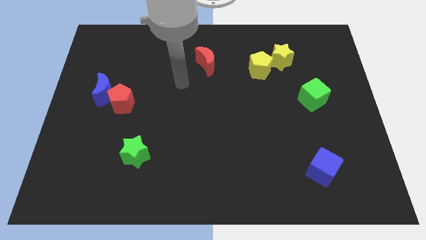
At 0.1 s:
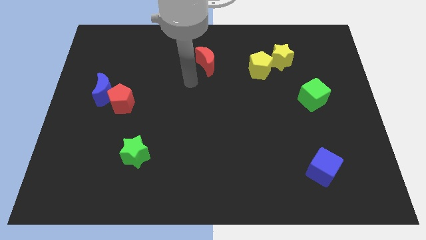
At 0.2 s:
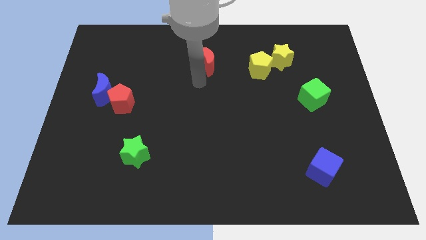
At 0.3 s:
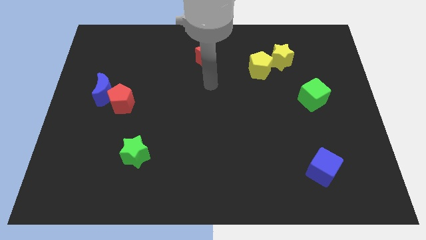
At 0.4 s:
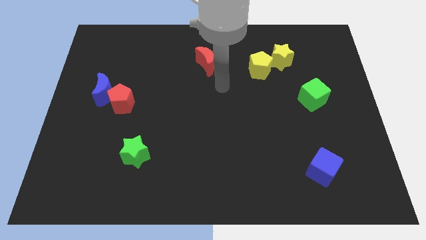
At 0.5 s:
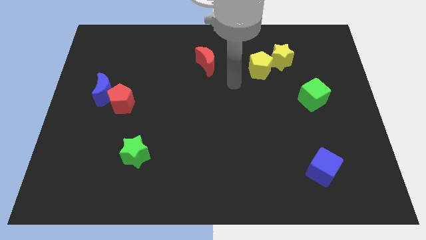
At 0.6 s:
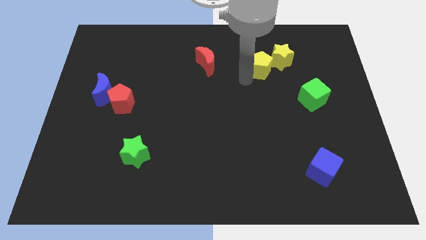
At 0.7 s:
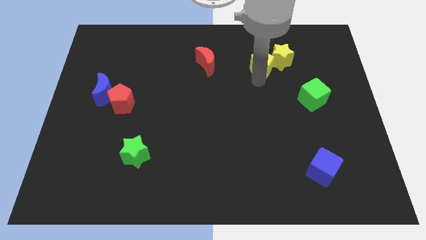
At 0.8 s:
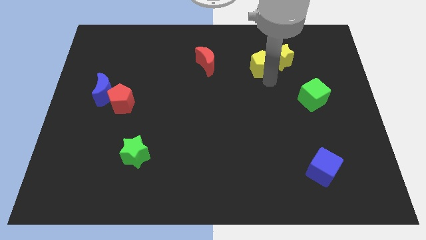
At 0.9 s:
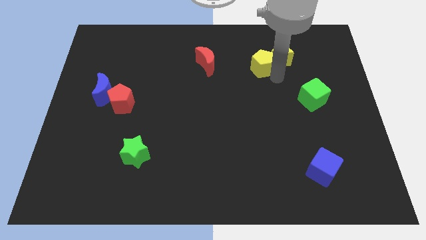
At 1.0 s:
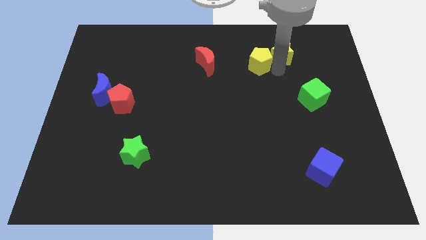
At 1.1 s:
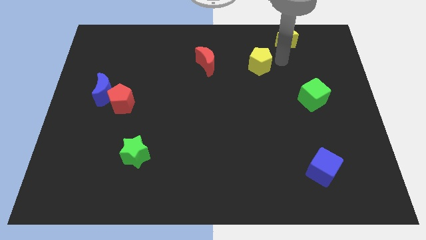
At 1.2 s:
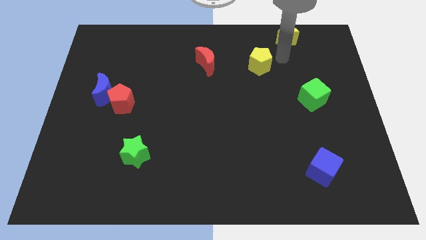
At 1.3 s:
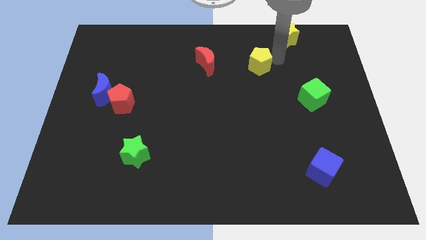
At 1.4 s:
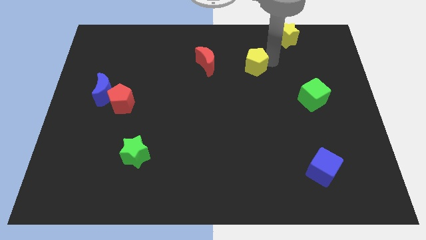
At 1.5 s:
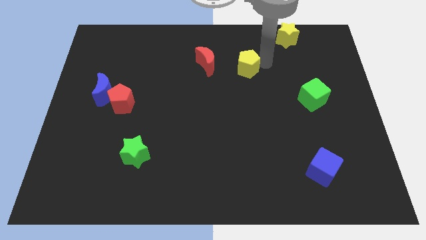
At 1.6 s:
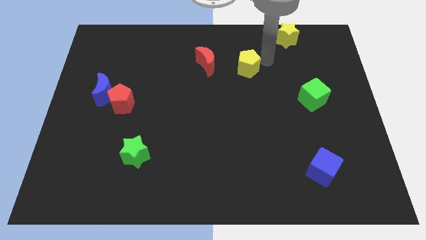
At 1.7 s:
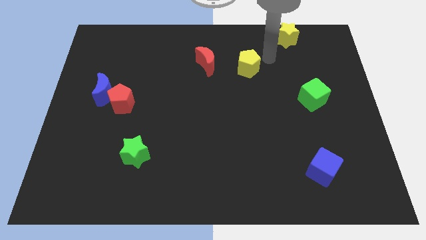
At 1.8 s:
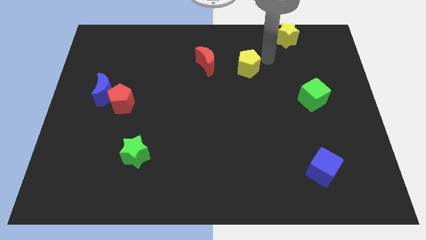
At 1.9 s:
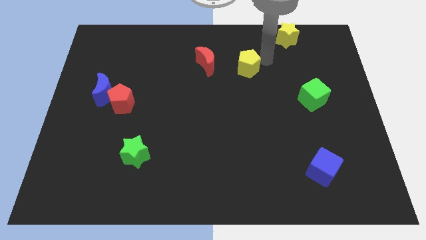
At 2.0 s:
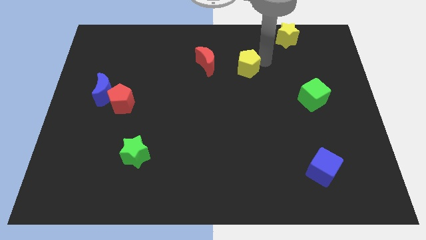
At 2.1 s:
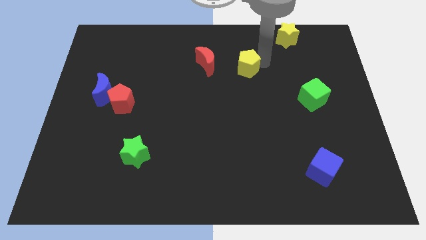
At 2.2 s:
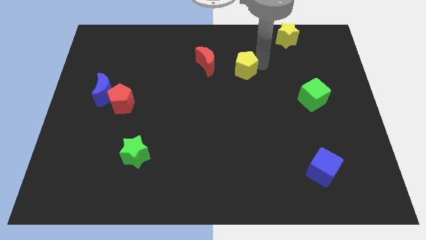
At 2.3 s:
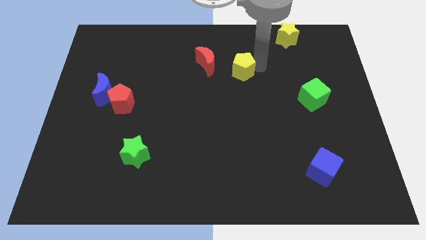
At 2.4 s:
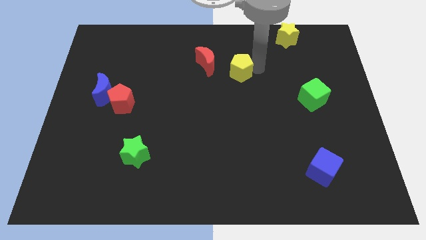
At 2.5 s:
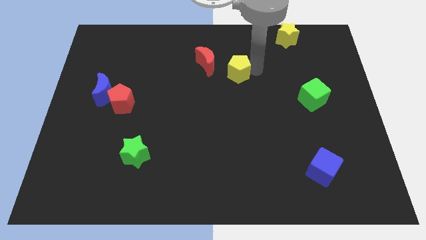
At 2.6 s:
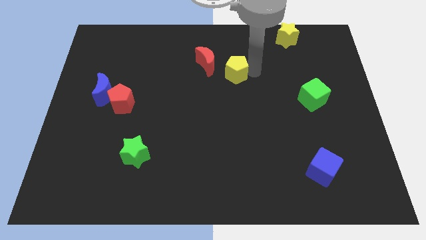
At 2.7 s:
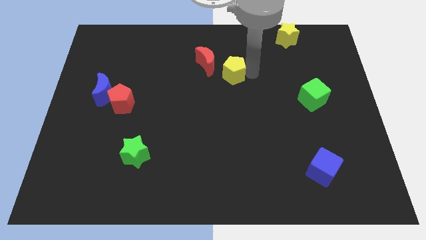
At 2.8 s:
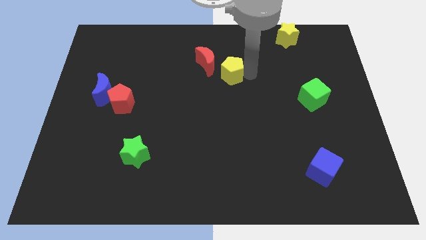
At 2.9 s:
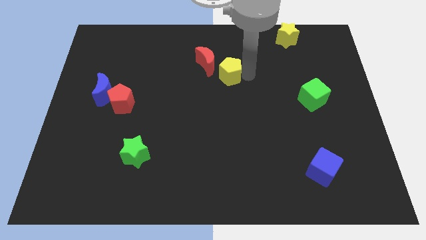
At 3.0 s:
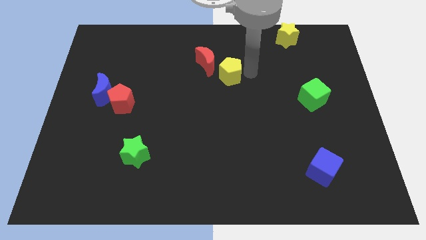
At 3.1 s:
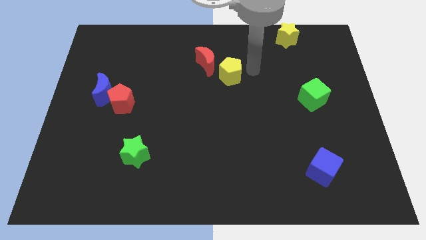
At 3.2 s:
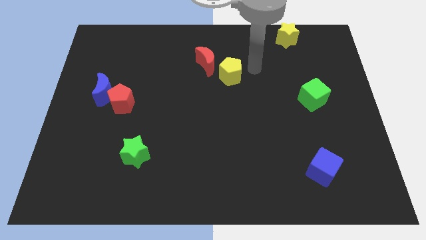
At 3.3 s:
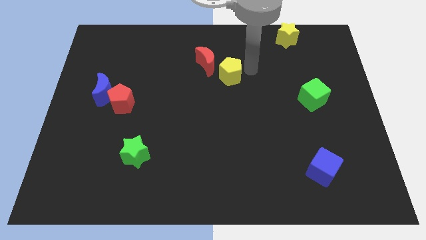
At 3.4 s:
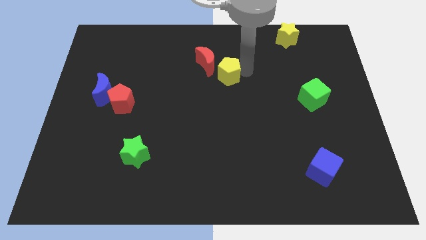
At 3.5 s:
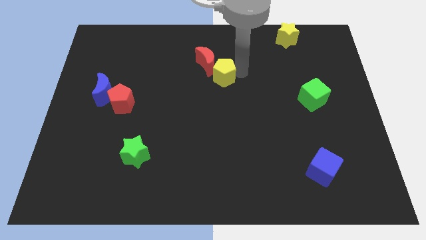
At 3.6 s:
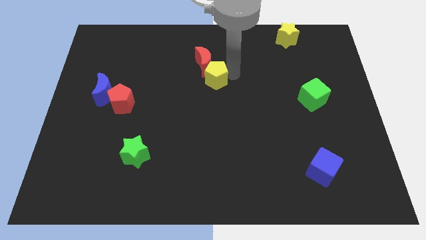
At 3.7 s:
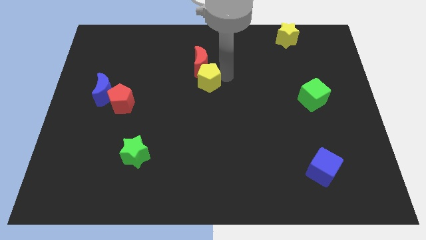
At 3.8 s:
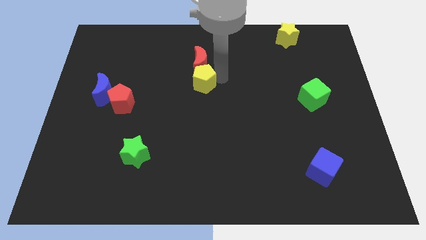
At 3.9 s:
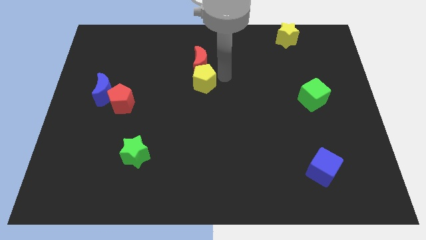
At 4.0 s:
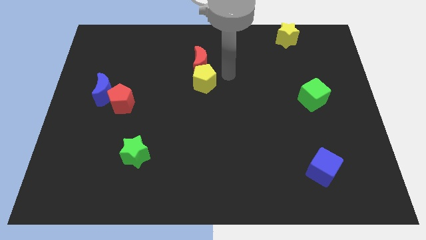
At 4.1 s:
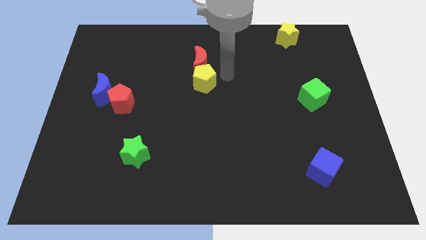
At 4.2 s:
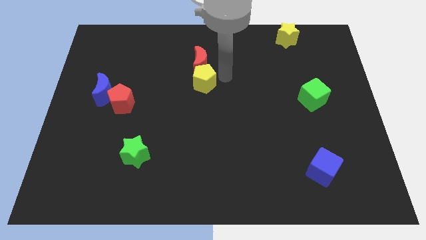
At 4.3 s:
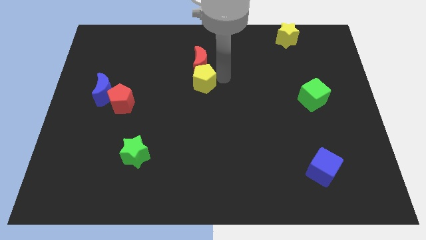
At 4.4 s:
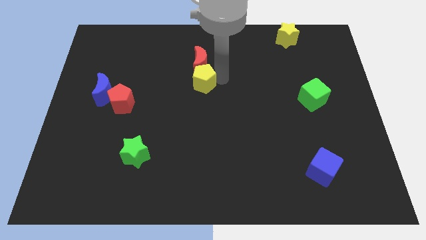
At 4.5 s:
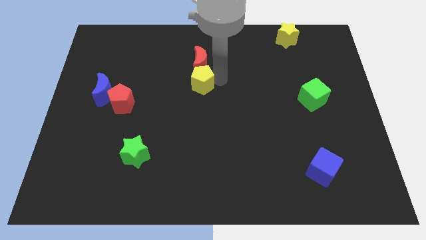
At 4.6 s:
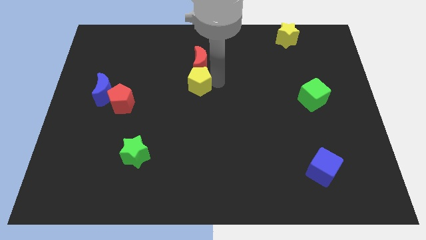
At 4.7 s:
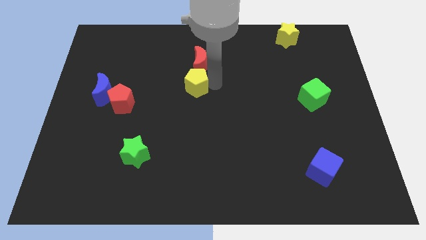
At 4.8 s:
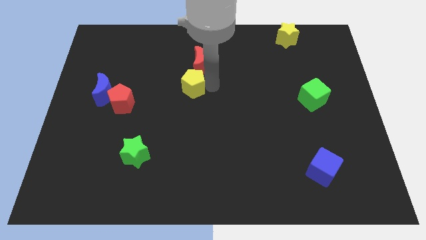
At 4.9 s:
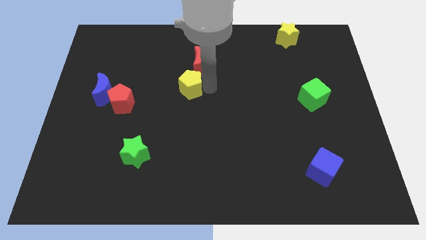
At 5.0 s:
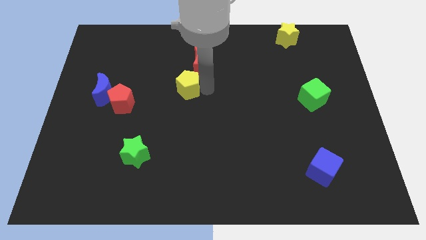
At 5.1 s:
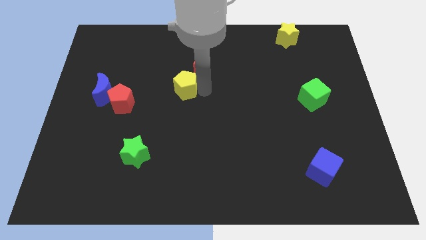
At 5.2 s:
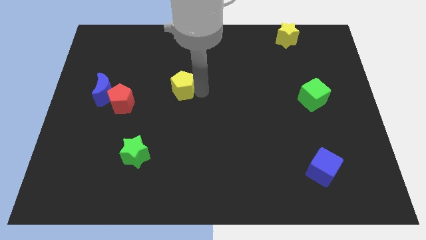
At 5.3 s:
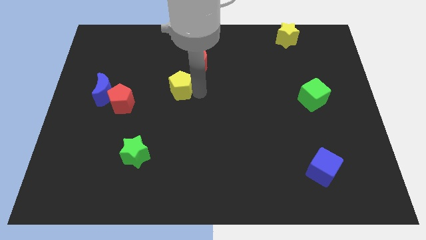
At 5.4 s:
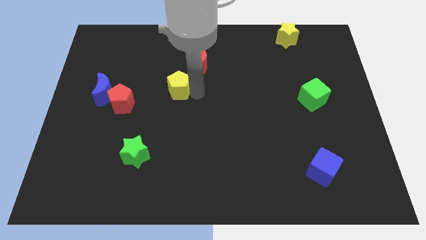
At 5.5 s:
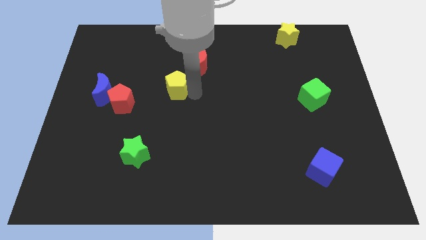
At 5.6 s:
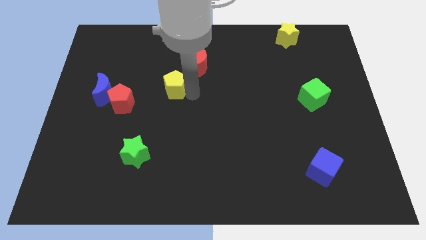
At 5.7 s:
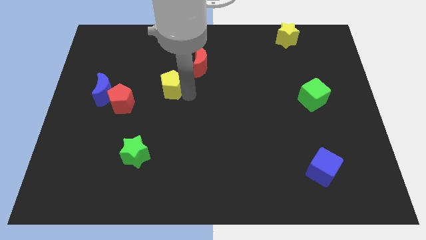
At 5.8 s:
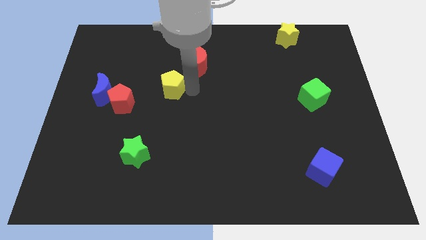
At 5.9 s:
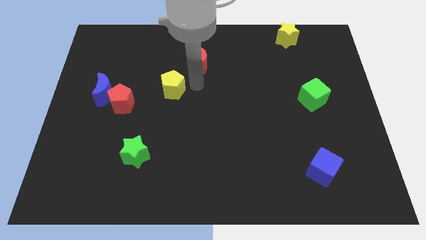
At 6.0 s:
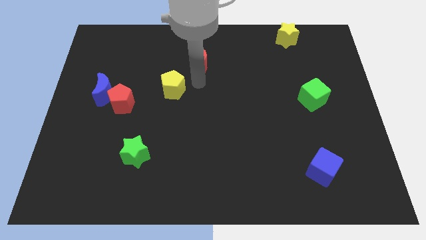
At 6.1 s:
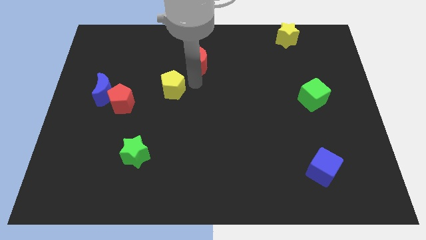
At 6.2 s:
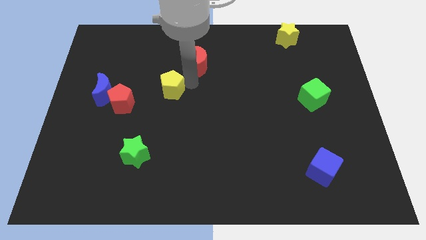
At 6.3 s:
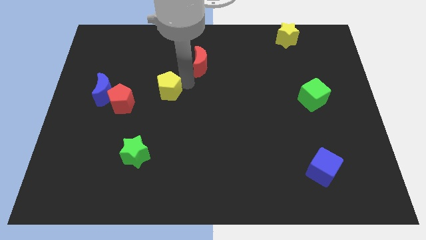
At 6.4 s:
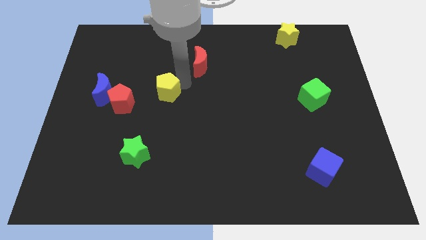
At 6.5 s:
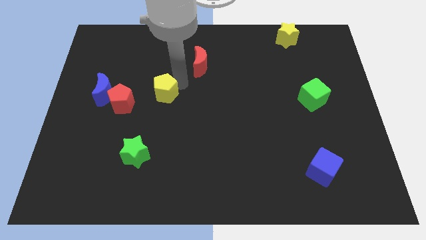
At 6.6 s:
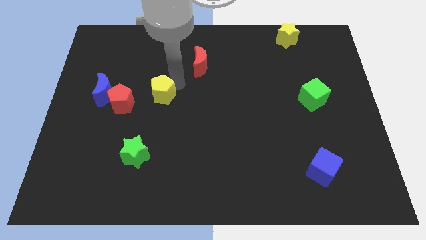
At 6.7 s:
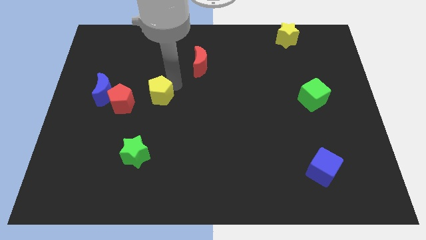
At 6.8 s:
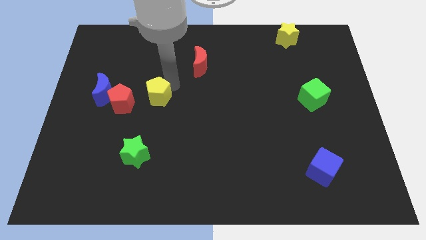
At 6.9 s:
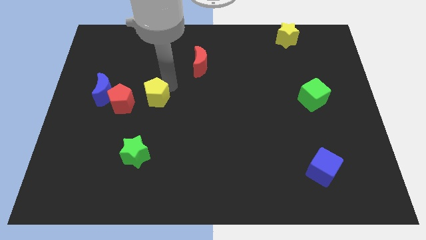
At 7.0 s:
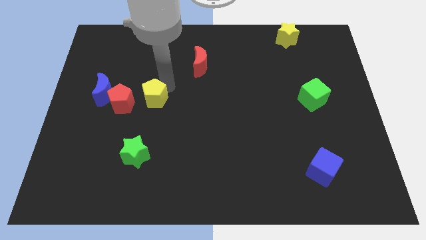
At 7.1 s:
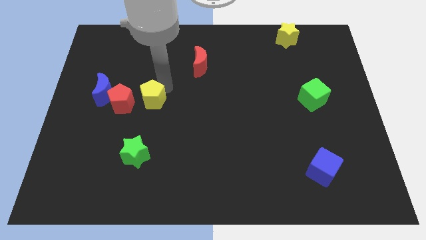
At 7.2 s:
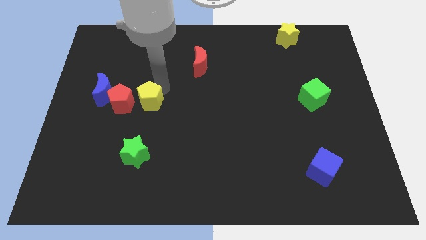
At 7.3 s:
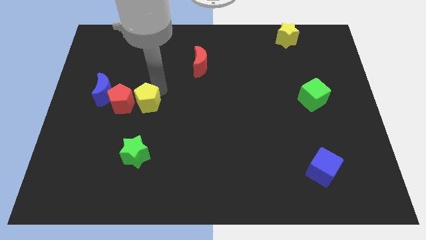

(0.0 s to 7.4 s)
push the yellow pentagon to the red pentagon
